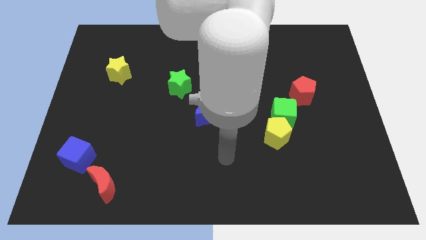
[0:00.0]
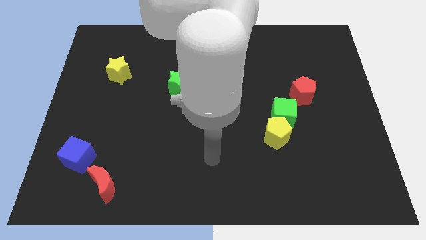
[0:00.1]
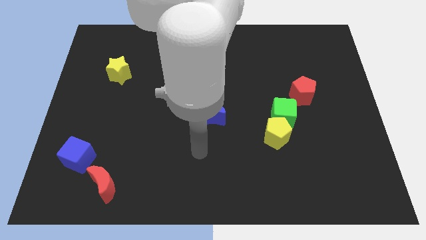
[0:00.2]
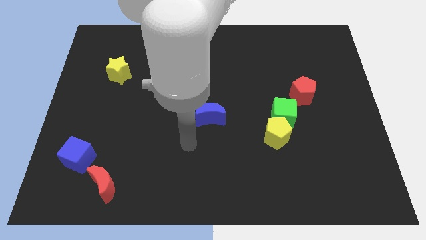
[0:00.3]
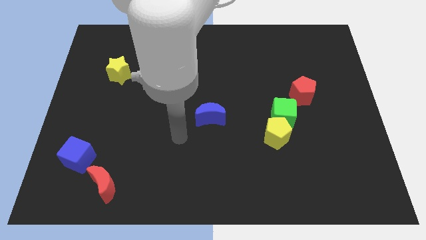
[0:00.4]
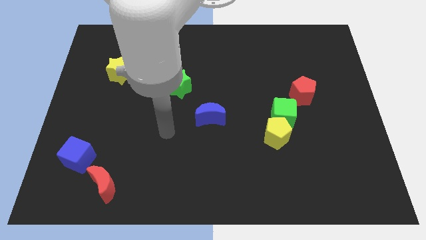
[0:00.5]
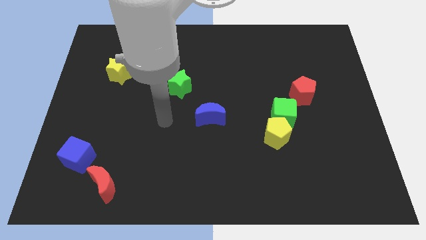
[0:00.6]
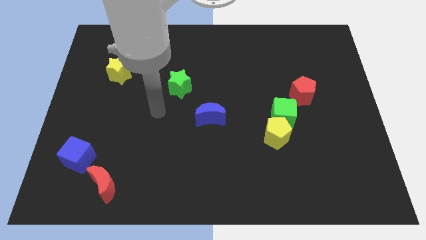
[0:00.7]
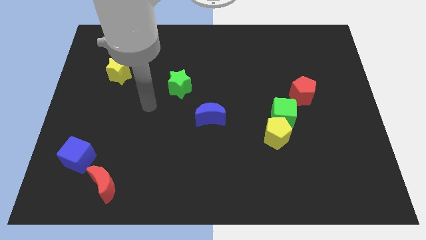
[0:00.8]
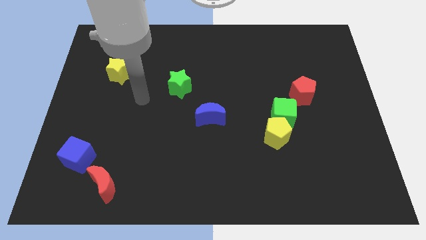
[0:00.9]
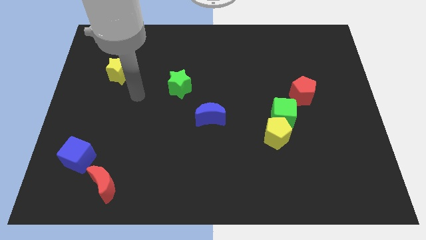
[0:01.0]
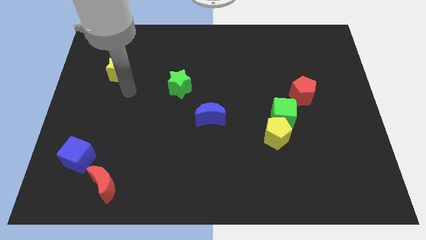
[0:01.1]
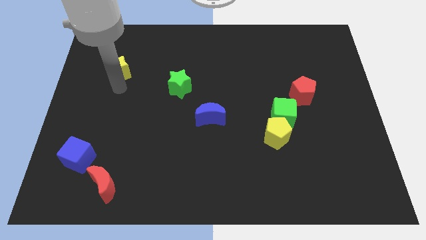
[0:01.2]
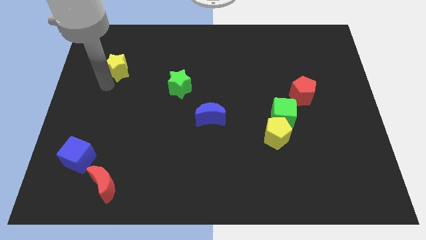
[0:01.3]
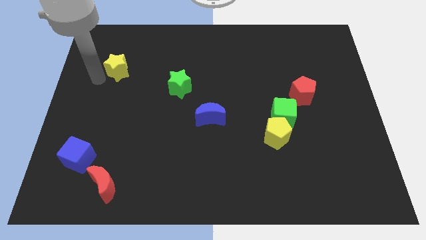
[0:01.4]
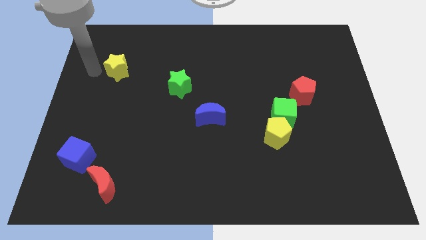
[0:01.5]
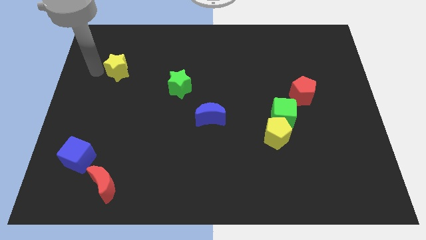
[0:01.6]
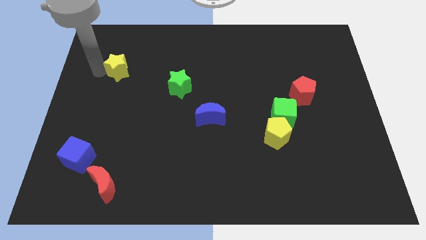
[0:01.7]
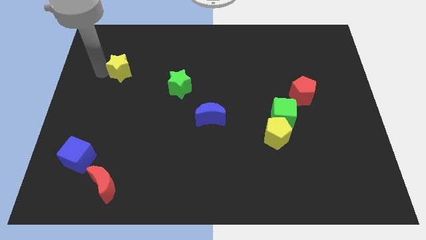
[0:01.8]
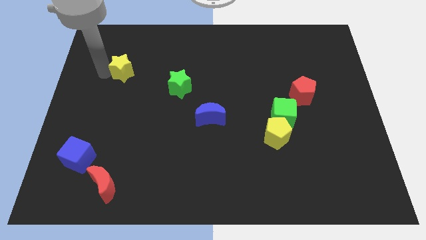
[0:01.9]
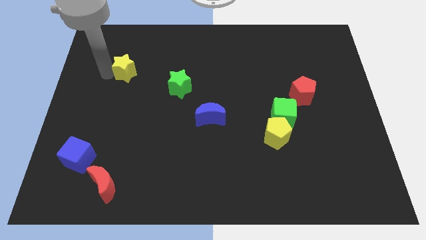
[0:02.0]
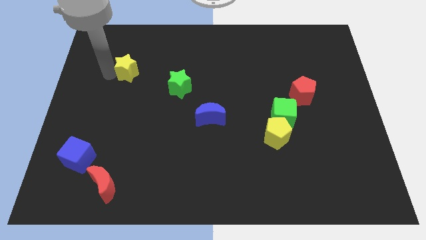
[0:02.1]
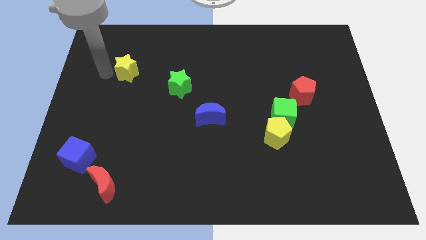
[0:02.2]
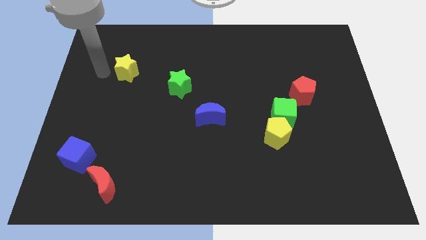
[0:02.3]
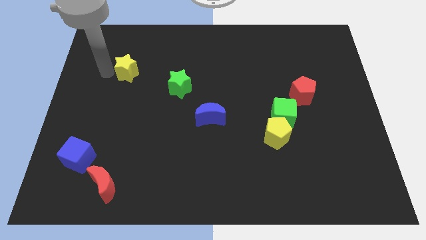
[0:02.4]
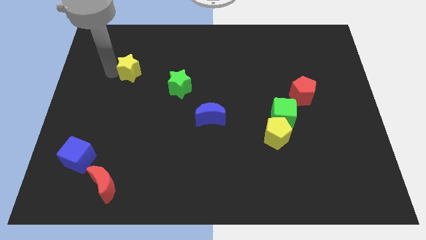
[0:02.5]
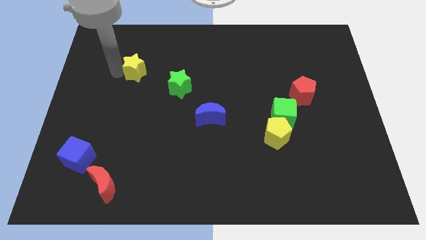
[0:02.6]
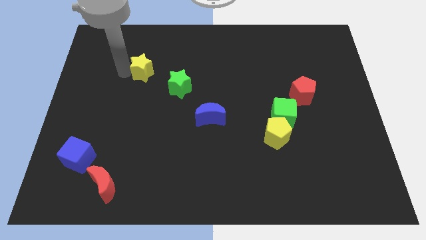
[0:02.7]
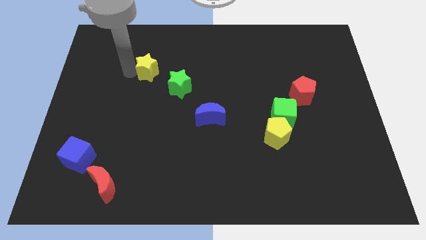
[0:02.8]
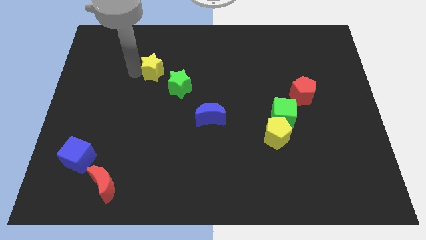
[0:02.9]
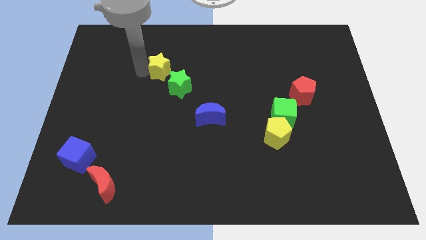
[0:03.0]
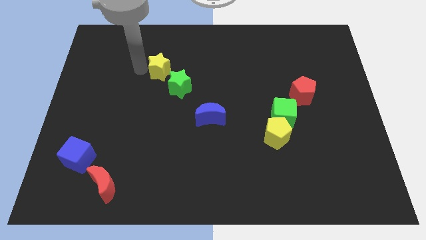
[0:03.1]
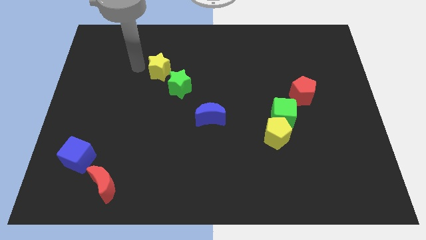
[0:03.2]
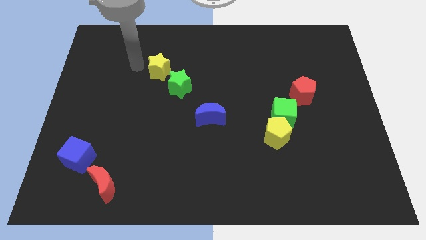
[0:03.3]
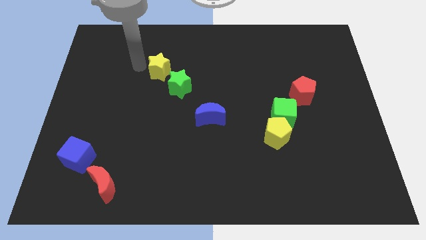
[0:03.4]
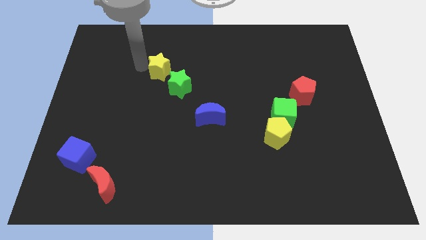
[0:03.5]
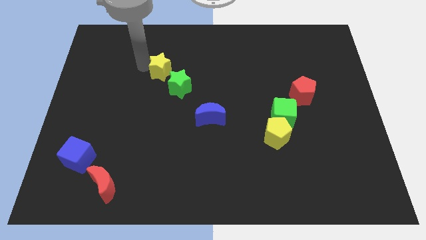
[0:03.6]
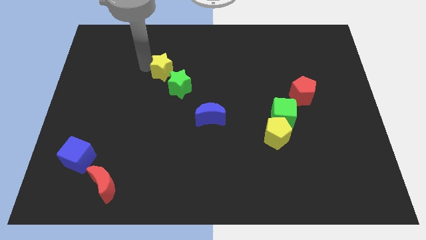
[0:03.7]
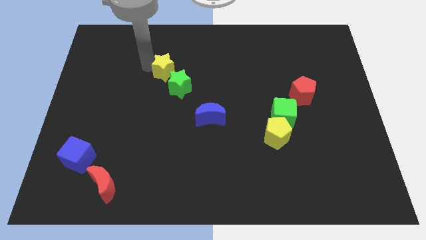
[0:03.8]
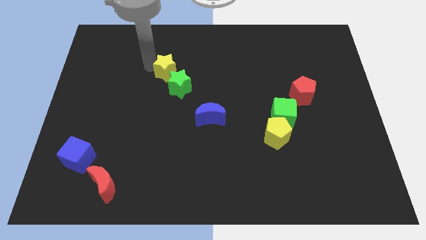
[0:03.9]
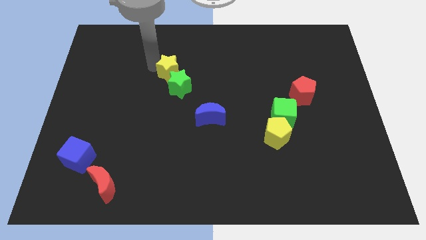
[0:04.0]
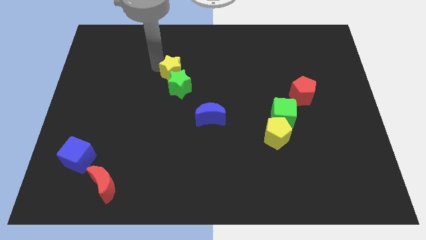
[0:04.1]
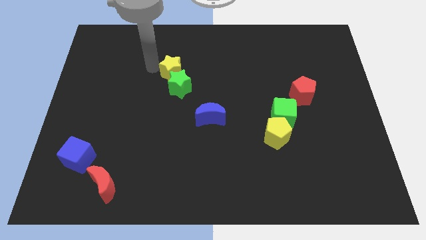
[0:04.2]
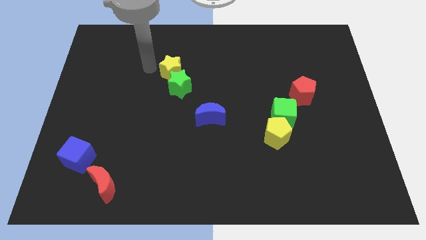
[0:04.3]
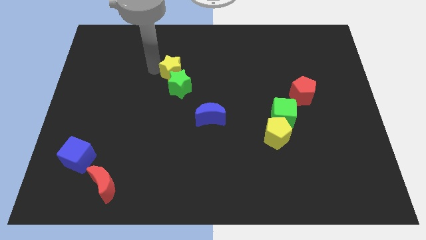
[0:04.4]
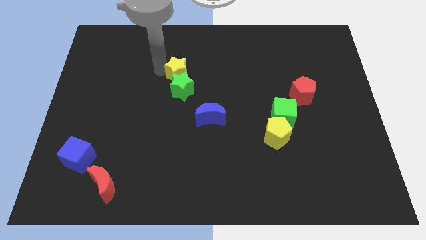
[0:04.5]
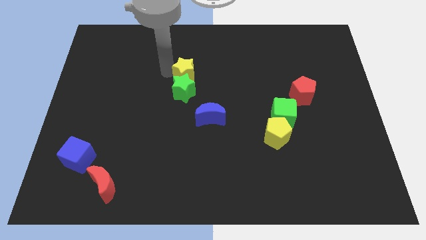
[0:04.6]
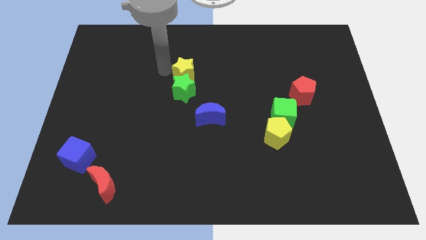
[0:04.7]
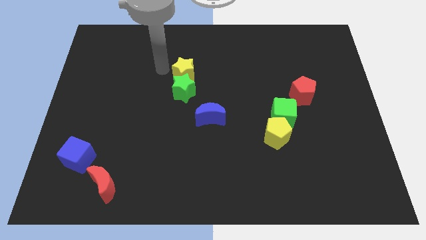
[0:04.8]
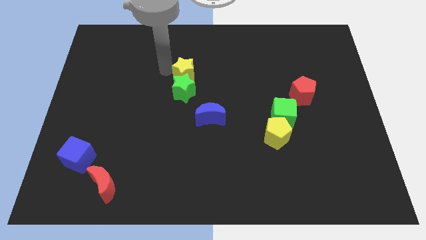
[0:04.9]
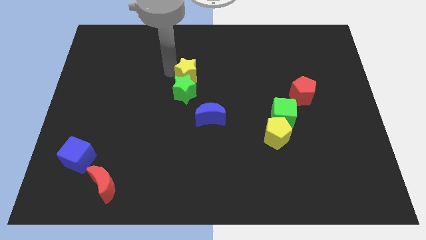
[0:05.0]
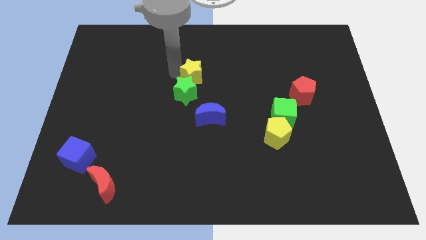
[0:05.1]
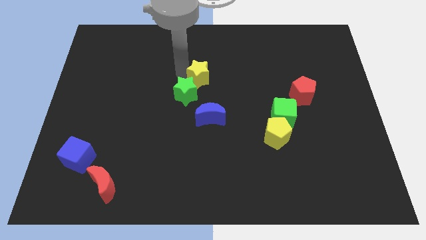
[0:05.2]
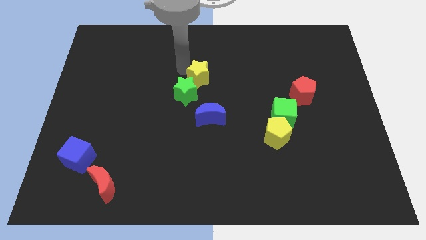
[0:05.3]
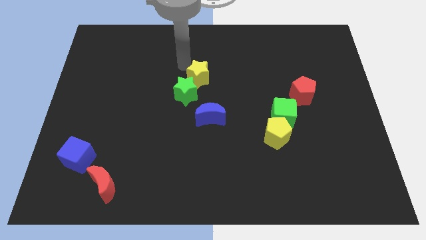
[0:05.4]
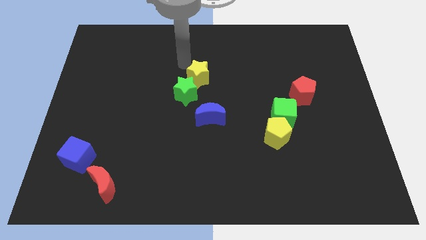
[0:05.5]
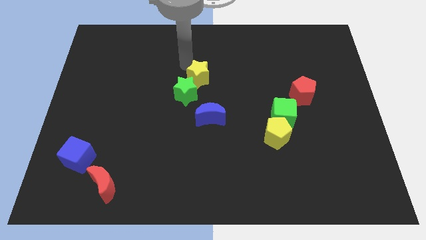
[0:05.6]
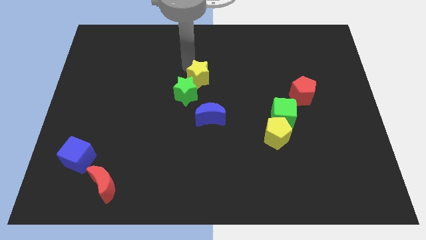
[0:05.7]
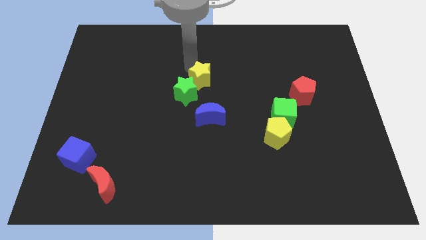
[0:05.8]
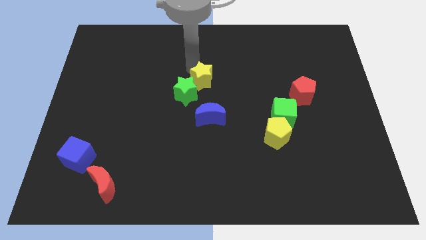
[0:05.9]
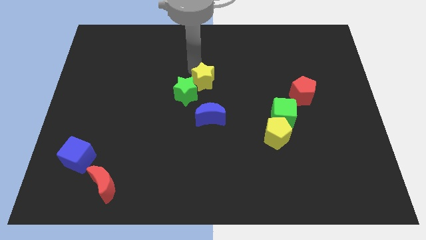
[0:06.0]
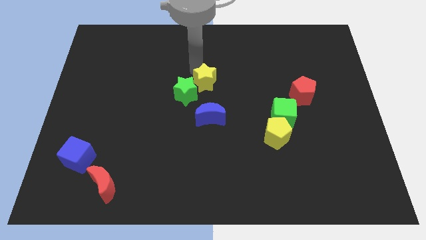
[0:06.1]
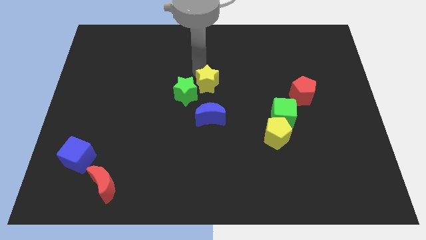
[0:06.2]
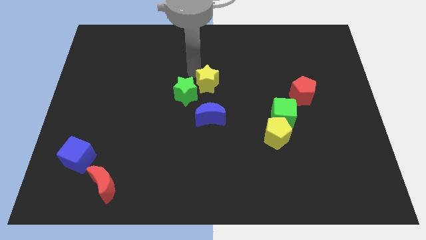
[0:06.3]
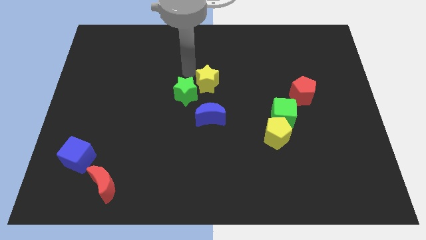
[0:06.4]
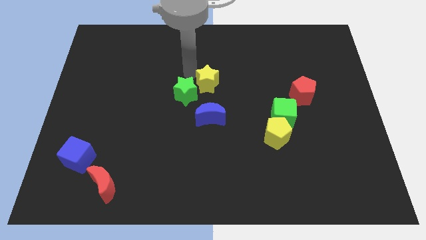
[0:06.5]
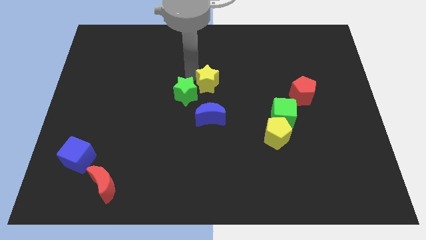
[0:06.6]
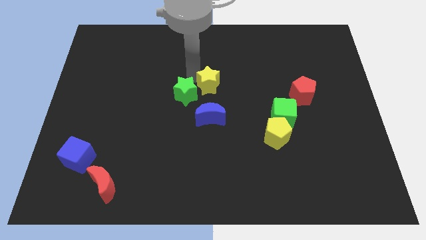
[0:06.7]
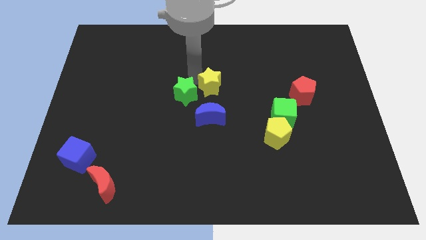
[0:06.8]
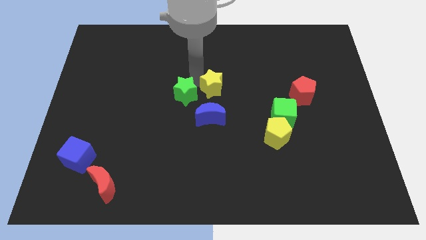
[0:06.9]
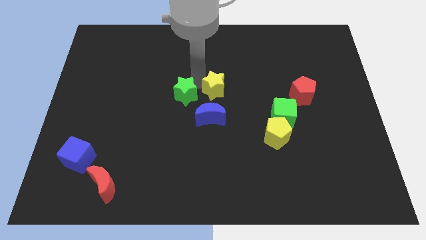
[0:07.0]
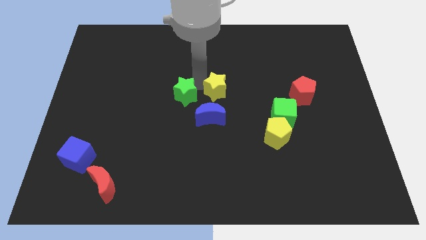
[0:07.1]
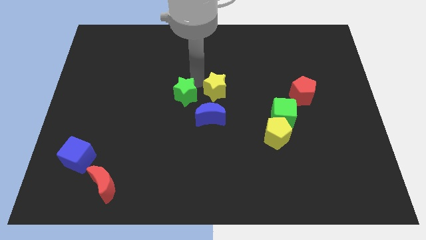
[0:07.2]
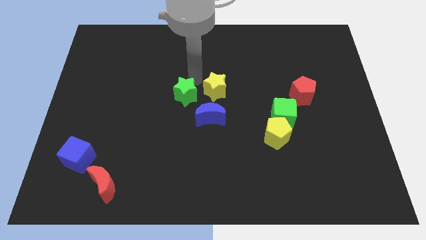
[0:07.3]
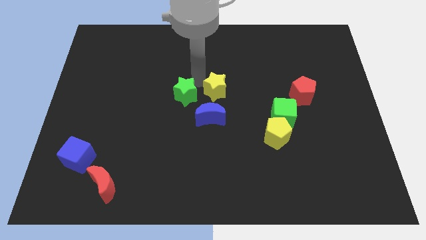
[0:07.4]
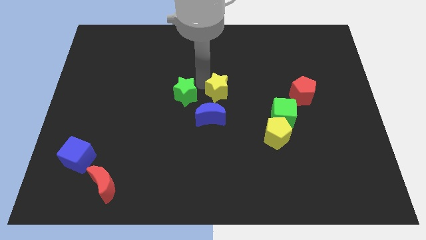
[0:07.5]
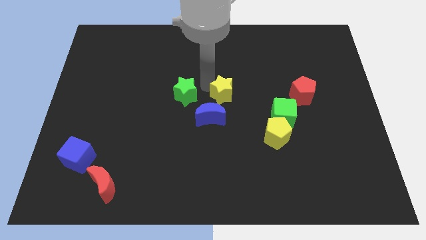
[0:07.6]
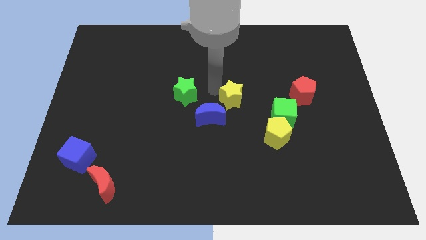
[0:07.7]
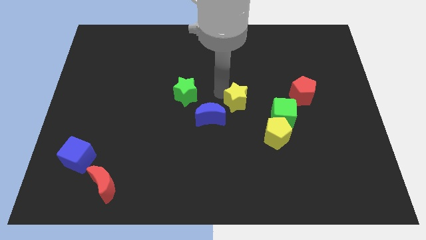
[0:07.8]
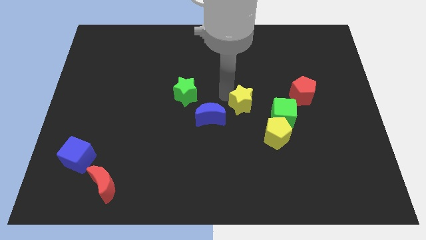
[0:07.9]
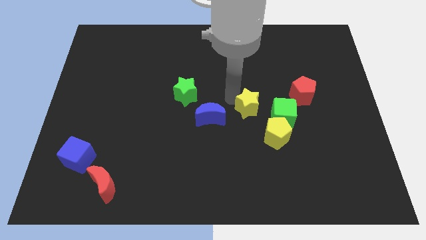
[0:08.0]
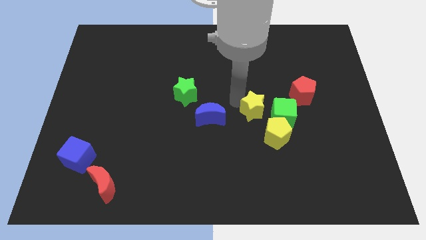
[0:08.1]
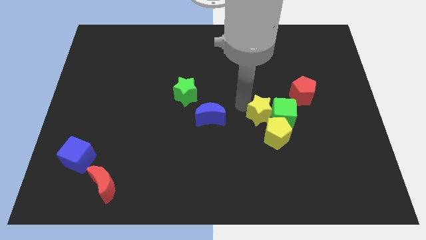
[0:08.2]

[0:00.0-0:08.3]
push the yellow star towards the green cube
